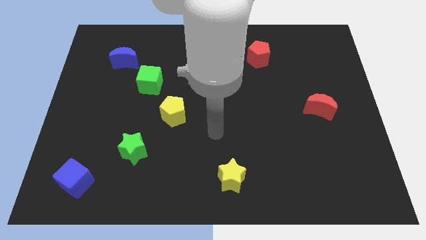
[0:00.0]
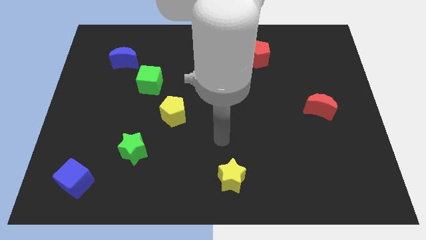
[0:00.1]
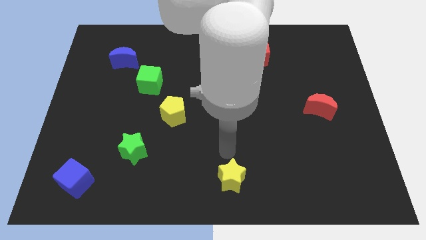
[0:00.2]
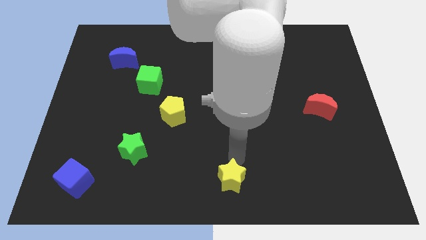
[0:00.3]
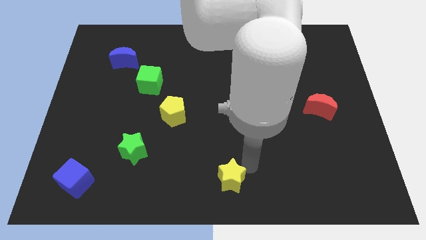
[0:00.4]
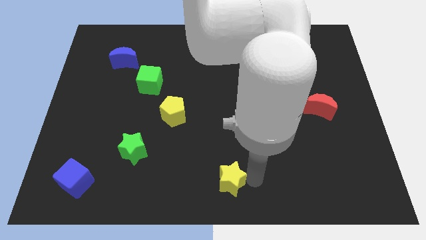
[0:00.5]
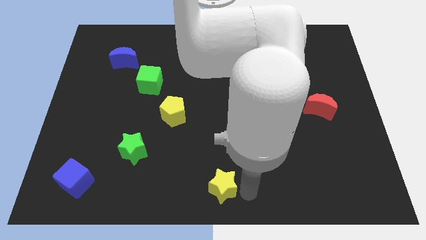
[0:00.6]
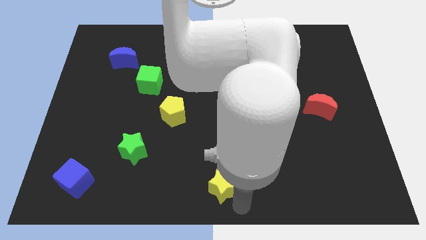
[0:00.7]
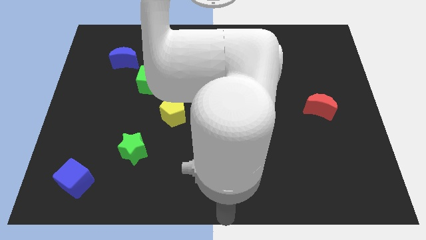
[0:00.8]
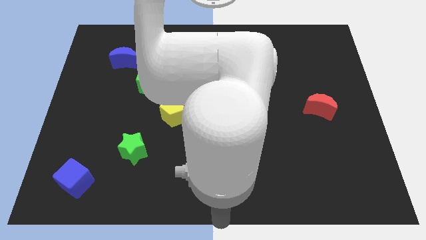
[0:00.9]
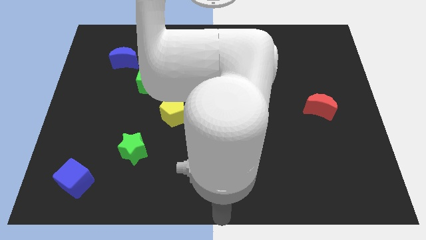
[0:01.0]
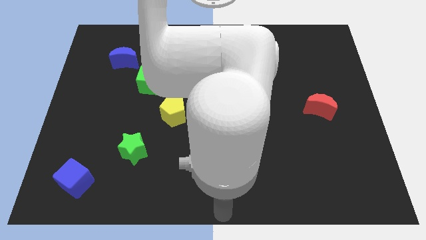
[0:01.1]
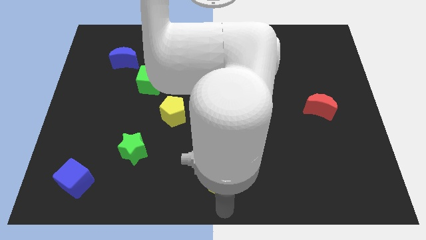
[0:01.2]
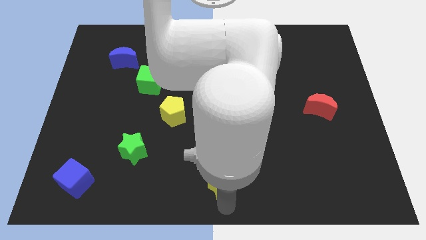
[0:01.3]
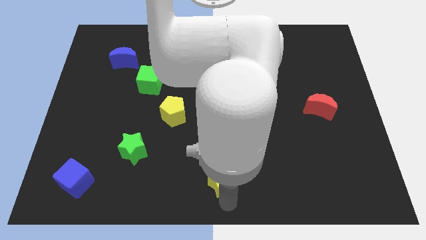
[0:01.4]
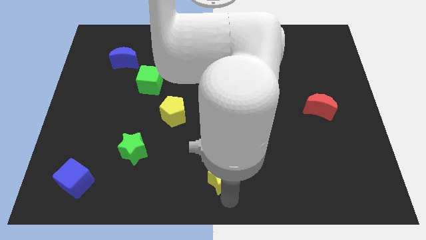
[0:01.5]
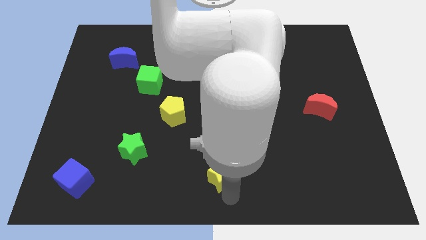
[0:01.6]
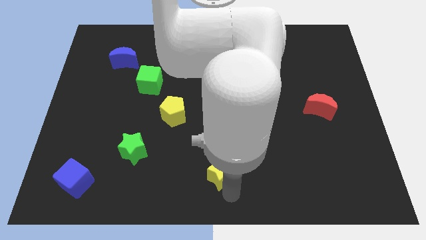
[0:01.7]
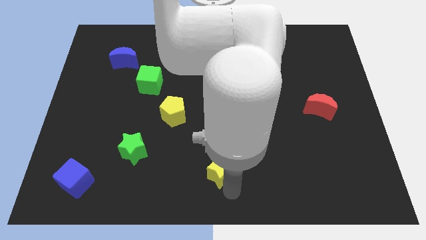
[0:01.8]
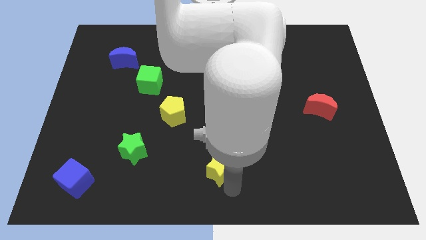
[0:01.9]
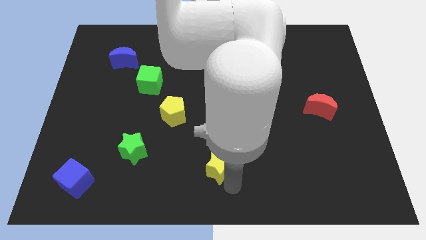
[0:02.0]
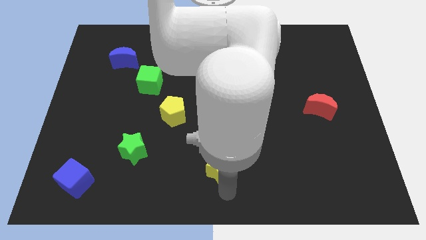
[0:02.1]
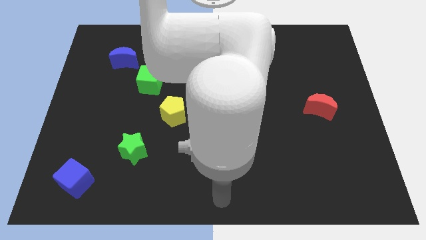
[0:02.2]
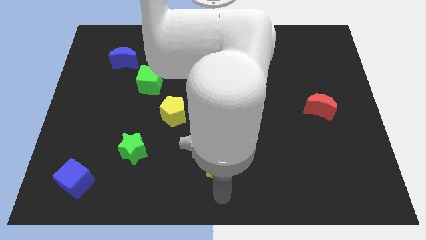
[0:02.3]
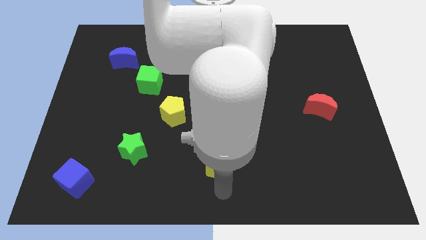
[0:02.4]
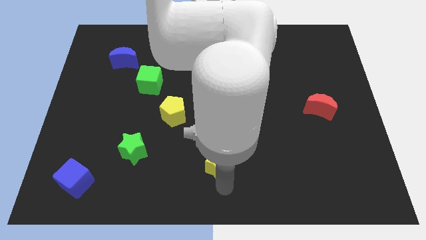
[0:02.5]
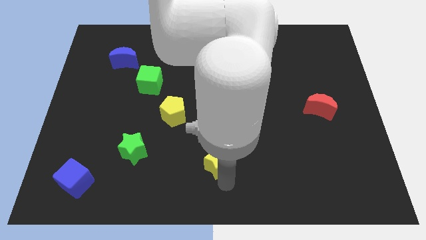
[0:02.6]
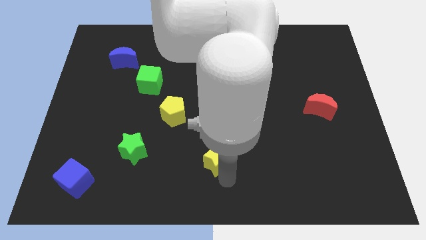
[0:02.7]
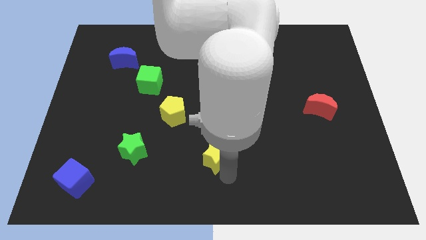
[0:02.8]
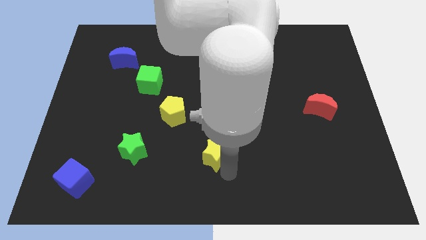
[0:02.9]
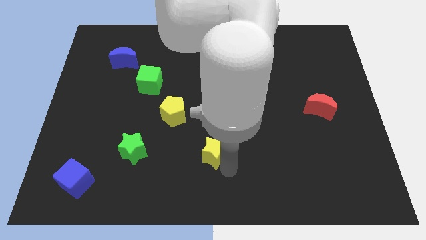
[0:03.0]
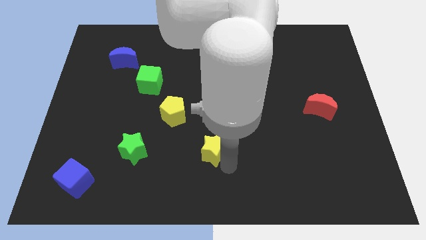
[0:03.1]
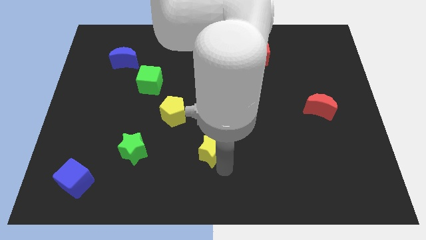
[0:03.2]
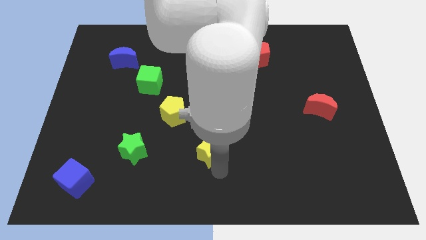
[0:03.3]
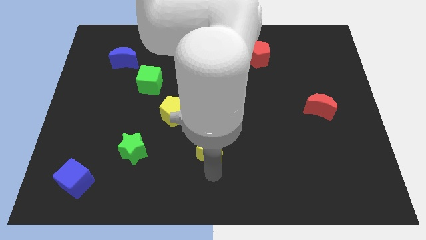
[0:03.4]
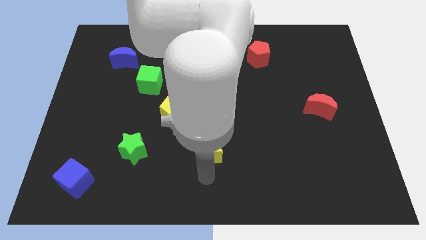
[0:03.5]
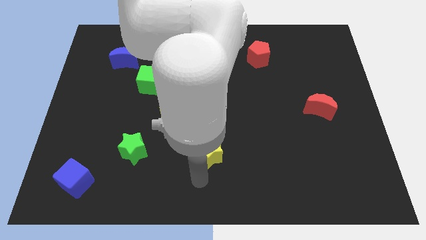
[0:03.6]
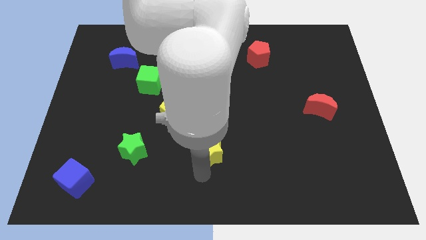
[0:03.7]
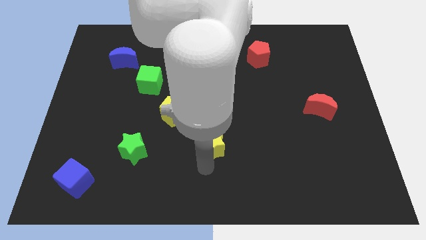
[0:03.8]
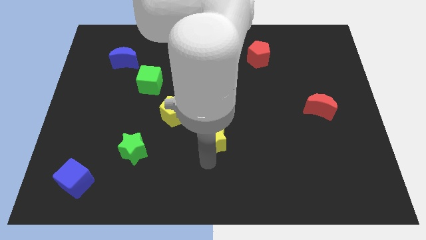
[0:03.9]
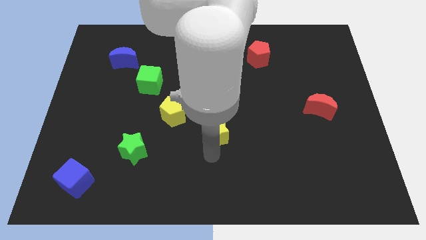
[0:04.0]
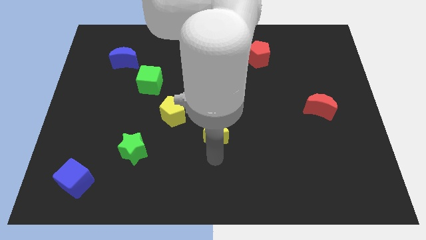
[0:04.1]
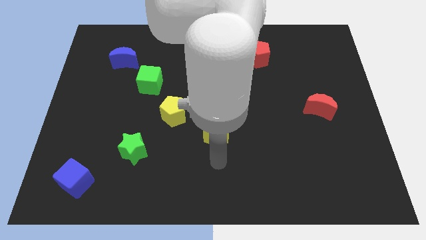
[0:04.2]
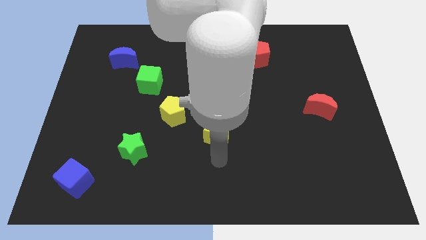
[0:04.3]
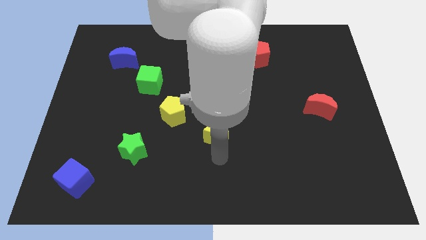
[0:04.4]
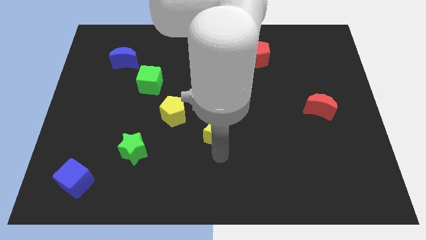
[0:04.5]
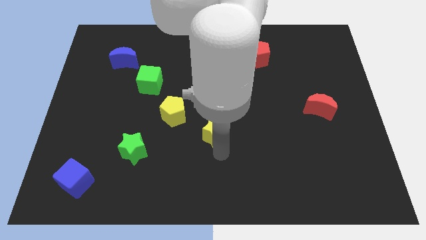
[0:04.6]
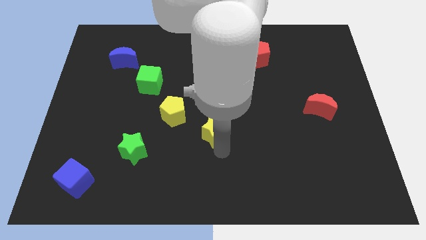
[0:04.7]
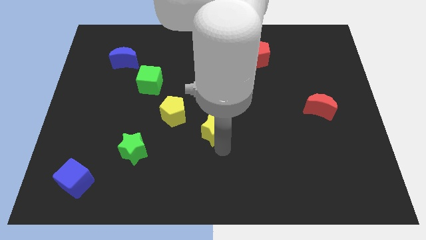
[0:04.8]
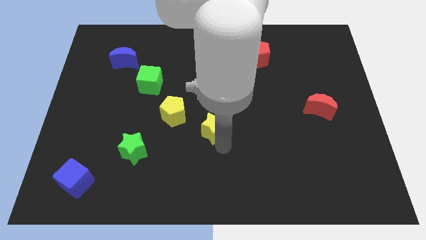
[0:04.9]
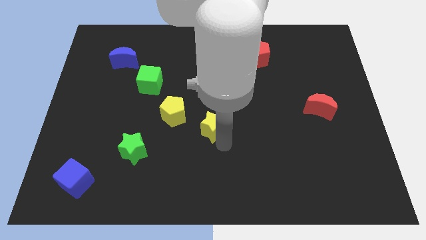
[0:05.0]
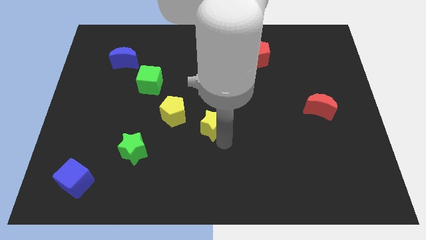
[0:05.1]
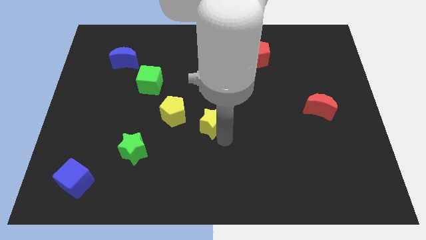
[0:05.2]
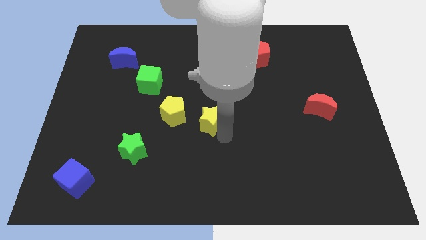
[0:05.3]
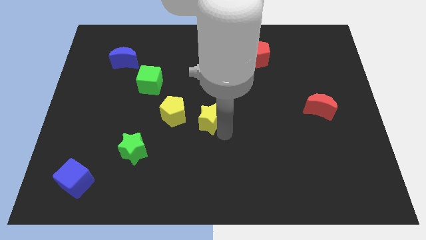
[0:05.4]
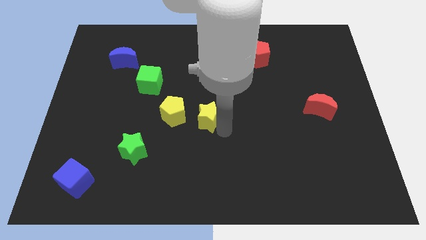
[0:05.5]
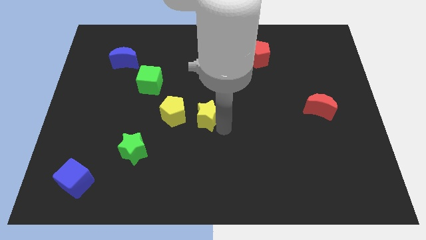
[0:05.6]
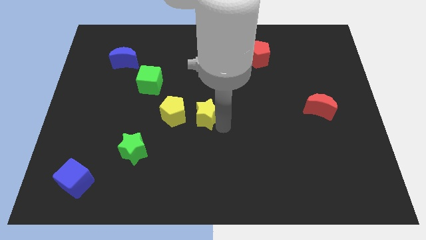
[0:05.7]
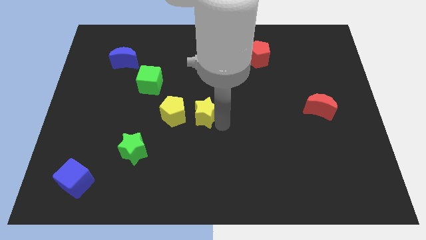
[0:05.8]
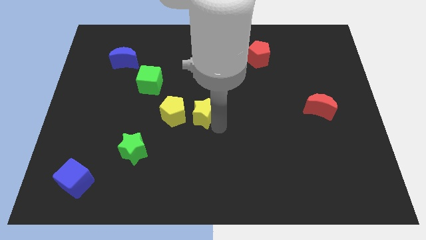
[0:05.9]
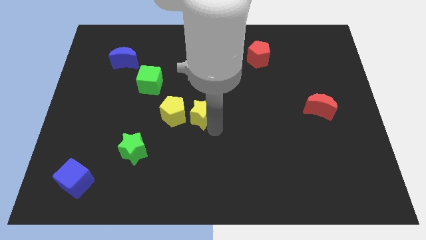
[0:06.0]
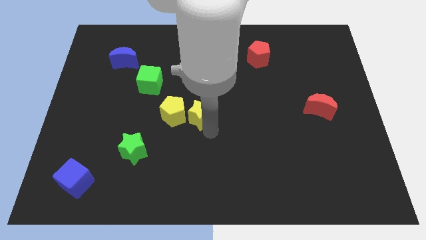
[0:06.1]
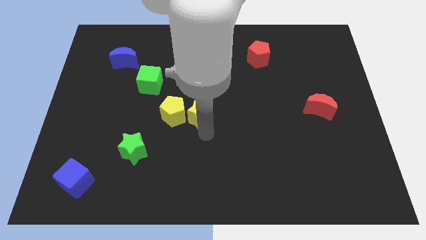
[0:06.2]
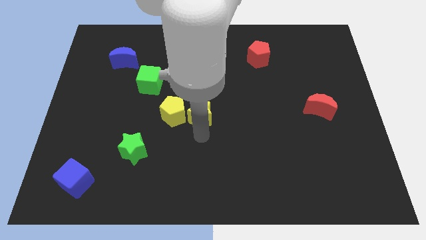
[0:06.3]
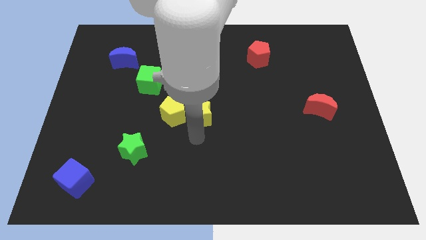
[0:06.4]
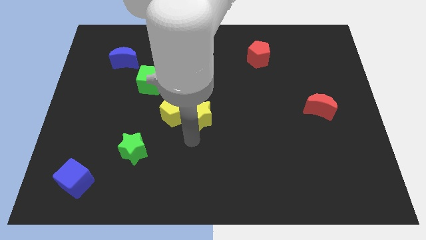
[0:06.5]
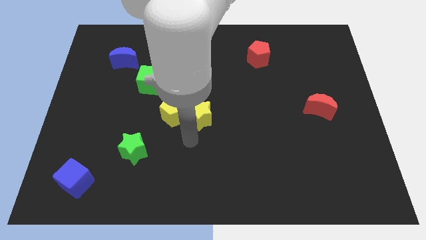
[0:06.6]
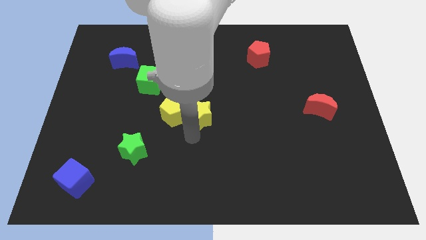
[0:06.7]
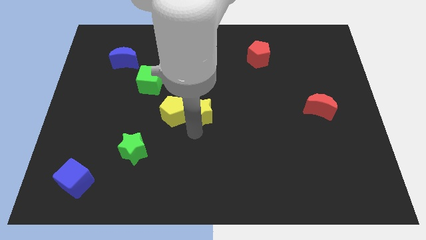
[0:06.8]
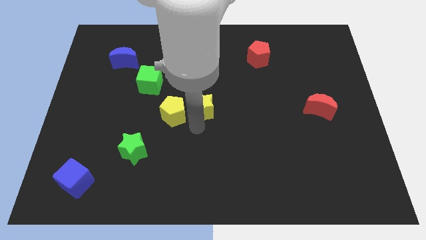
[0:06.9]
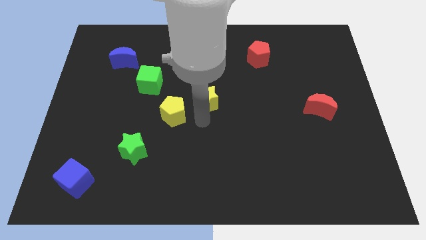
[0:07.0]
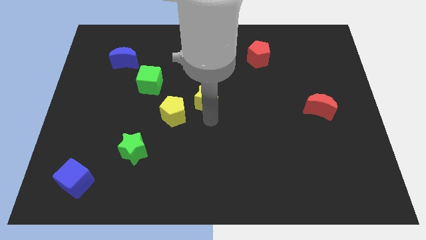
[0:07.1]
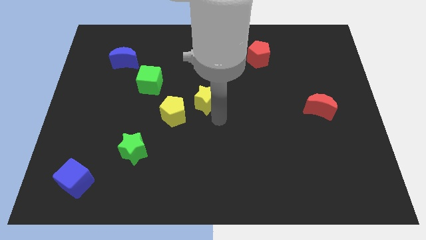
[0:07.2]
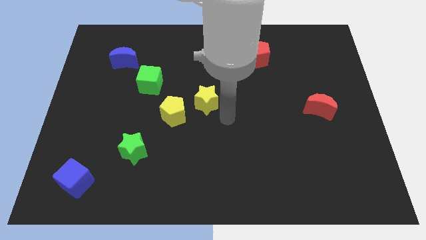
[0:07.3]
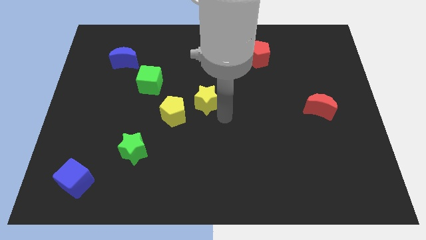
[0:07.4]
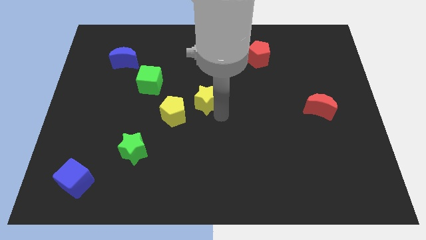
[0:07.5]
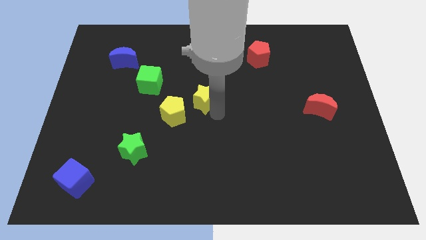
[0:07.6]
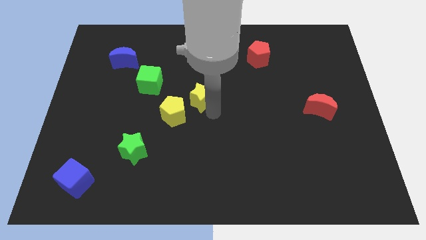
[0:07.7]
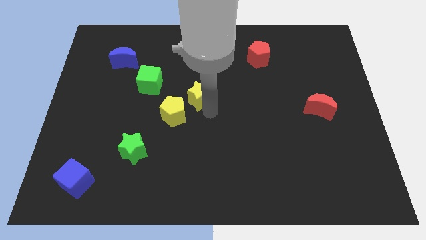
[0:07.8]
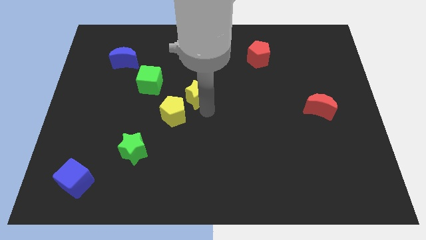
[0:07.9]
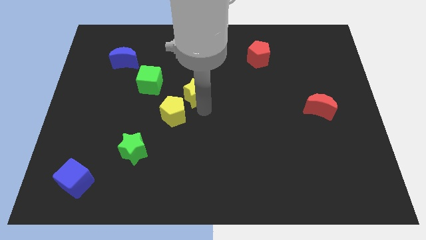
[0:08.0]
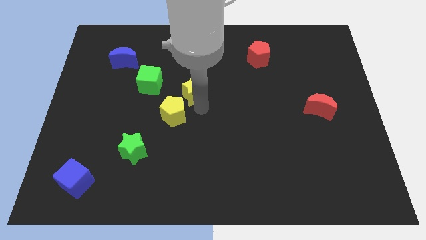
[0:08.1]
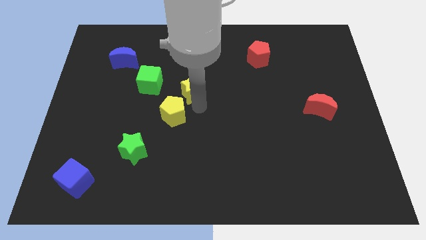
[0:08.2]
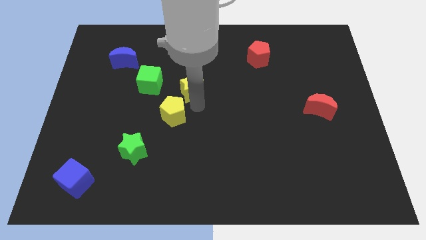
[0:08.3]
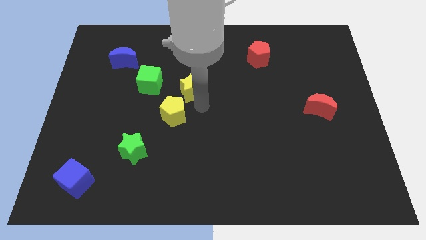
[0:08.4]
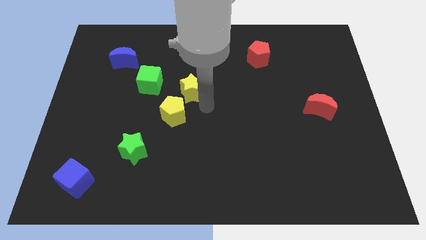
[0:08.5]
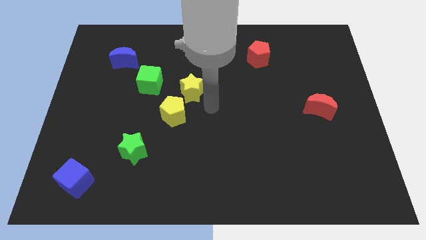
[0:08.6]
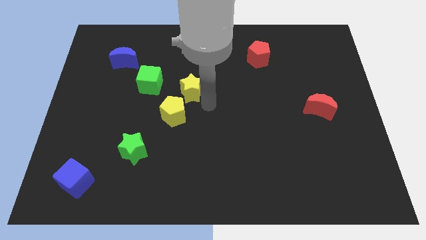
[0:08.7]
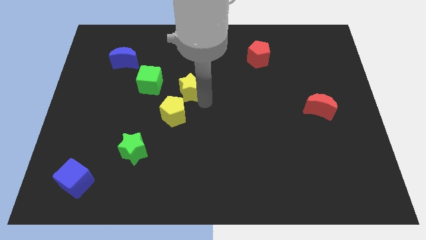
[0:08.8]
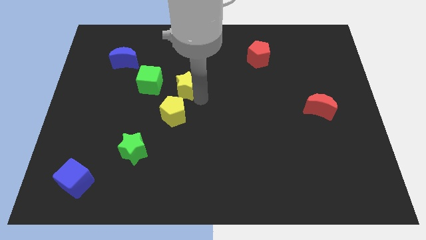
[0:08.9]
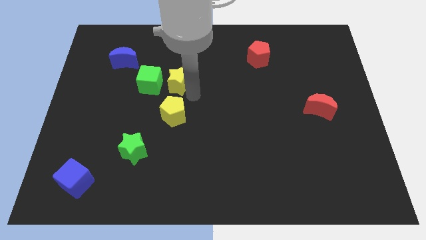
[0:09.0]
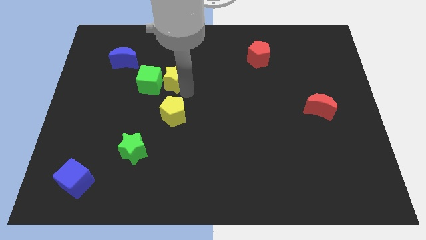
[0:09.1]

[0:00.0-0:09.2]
push the yellow star to the top right of the green cube
